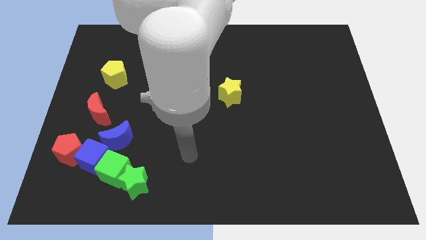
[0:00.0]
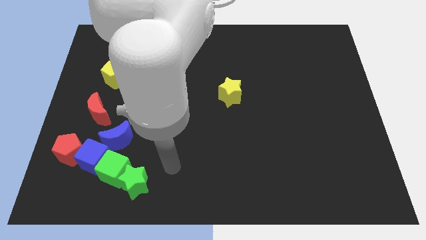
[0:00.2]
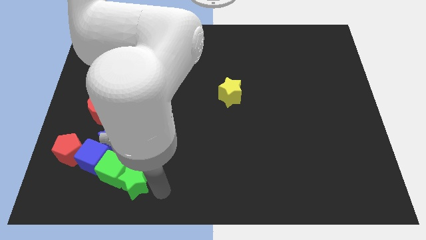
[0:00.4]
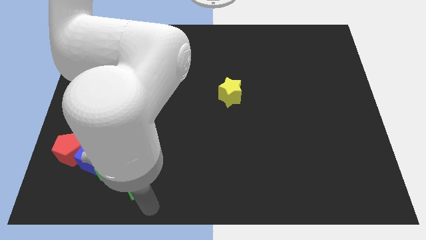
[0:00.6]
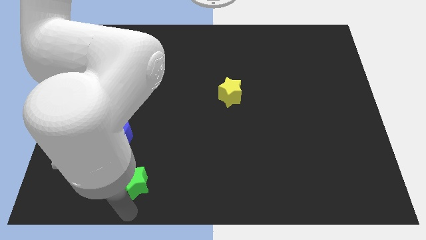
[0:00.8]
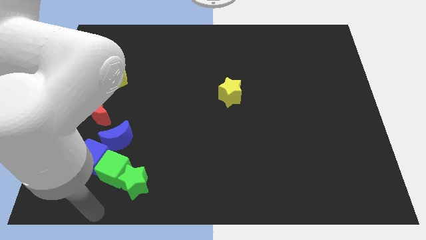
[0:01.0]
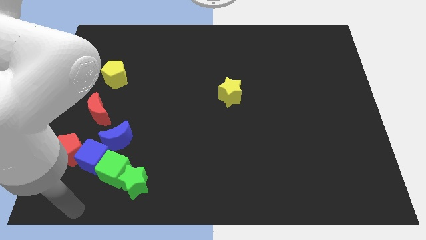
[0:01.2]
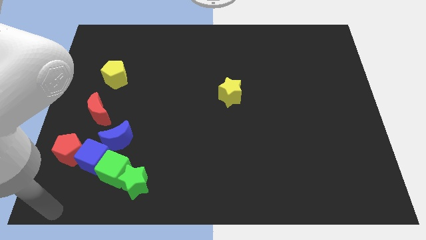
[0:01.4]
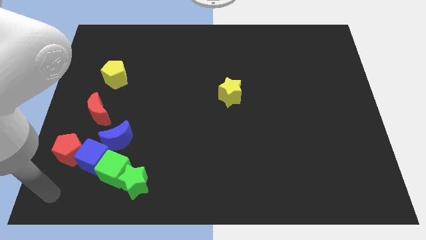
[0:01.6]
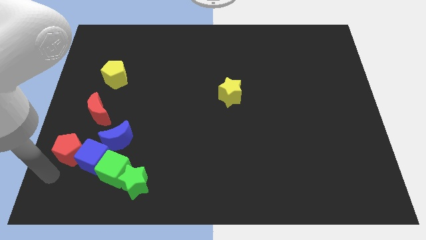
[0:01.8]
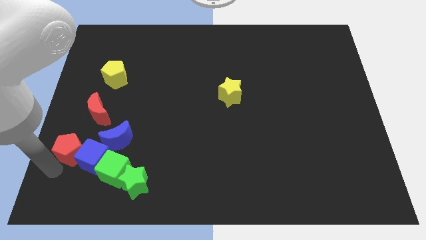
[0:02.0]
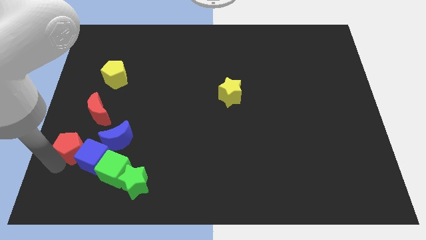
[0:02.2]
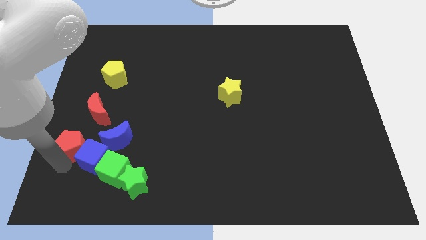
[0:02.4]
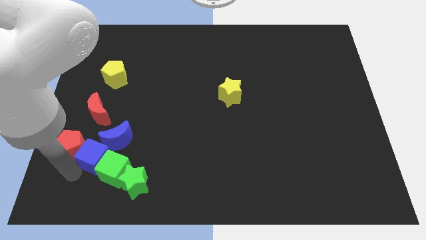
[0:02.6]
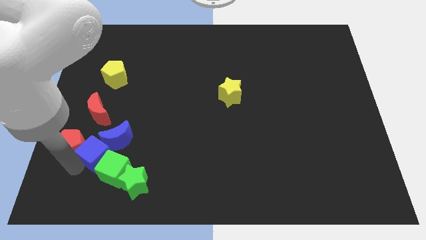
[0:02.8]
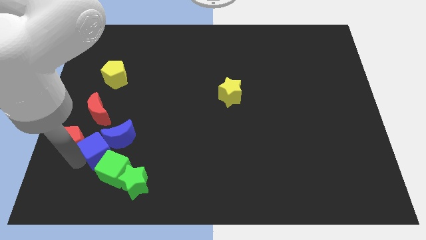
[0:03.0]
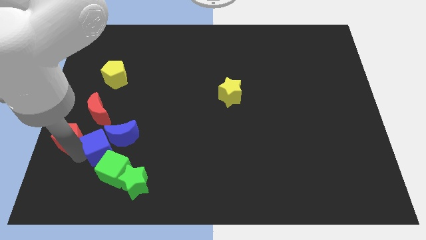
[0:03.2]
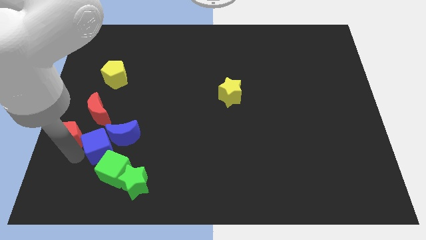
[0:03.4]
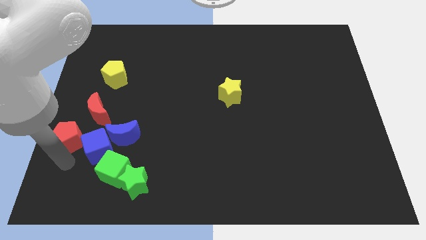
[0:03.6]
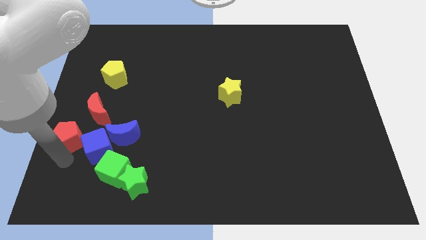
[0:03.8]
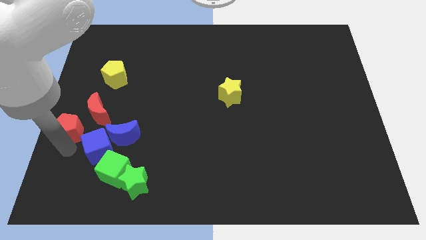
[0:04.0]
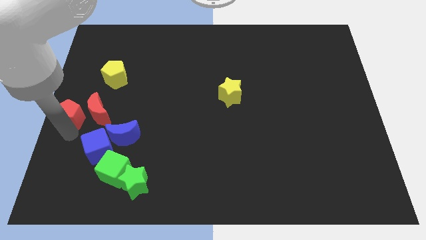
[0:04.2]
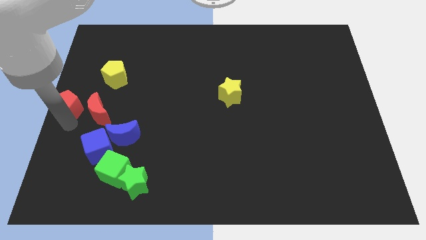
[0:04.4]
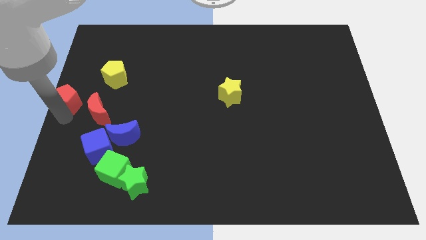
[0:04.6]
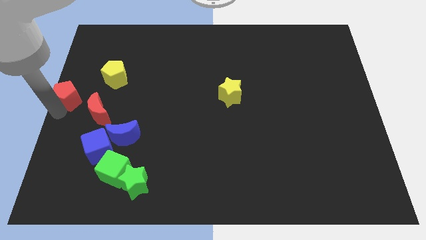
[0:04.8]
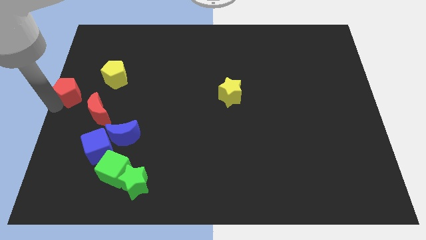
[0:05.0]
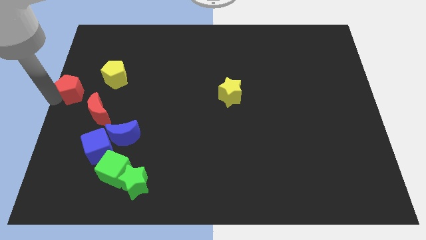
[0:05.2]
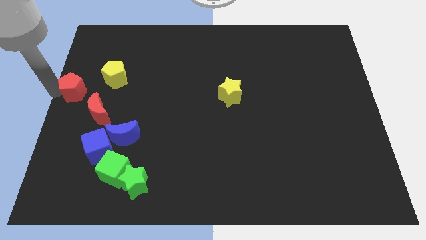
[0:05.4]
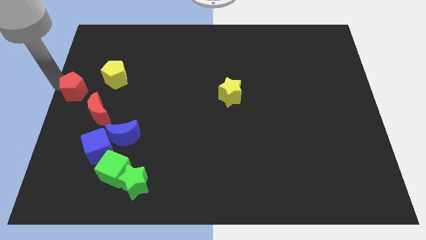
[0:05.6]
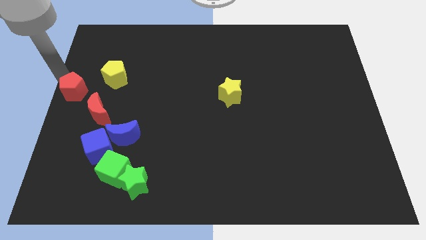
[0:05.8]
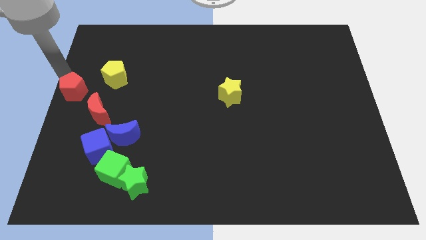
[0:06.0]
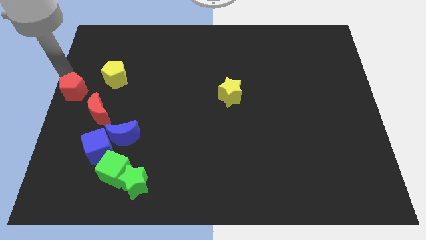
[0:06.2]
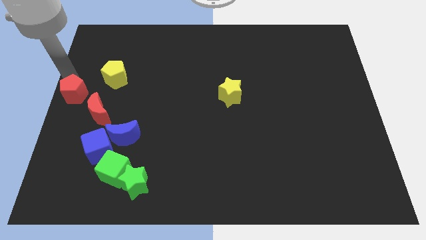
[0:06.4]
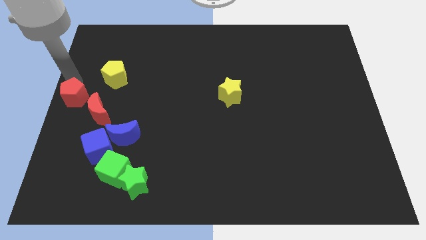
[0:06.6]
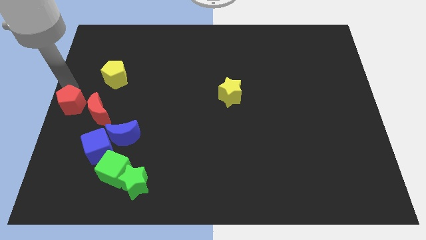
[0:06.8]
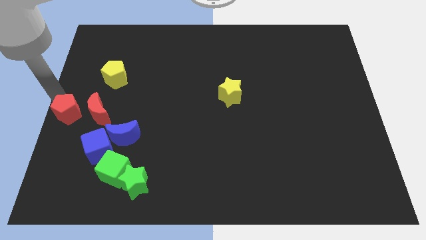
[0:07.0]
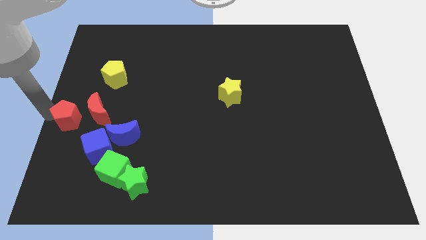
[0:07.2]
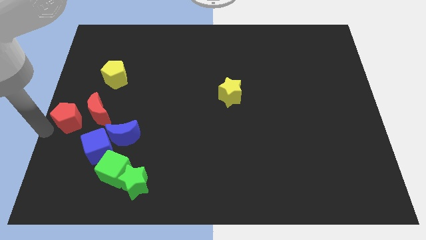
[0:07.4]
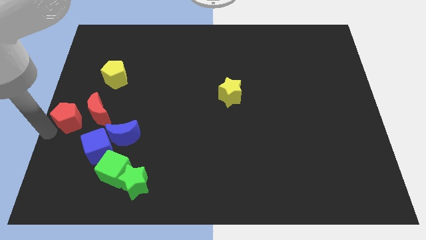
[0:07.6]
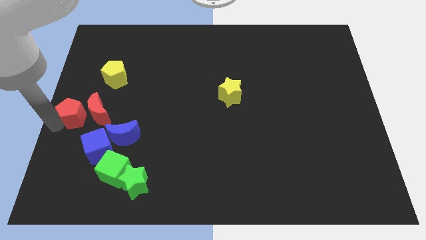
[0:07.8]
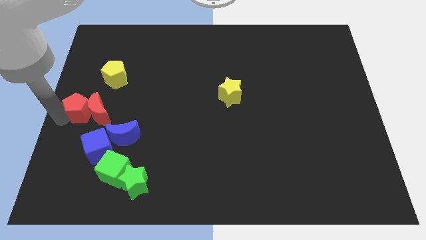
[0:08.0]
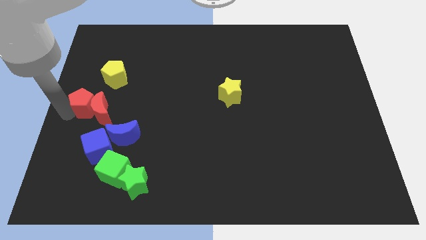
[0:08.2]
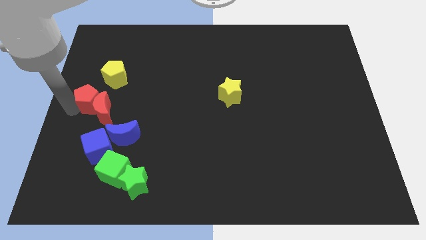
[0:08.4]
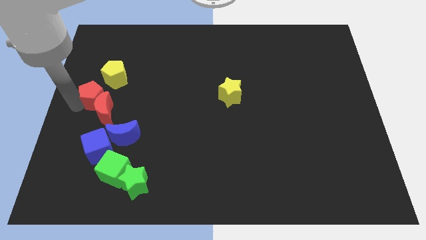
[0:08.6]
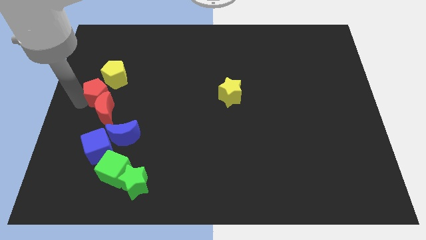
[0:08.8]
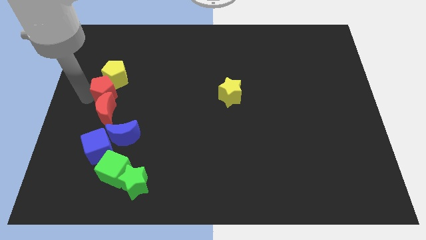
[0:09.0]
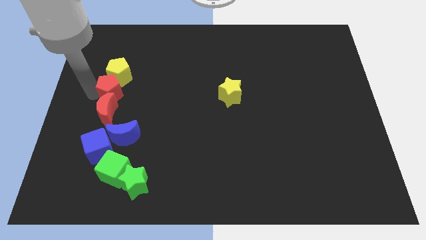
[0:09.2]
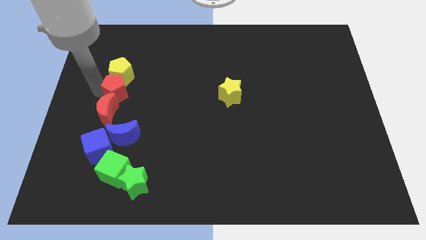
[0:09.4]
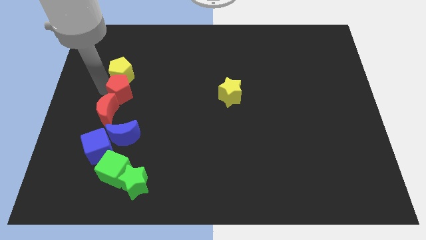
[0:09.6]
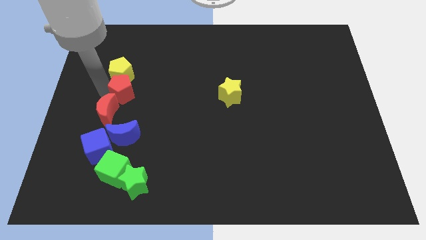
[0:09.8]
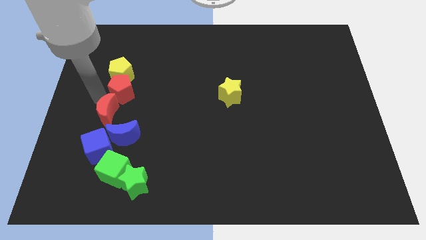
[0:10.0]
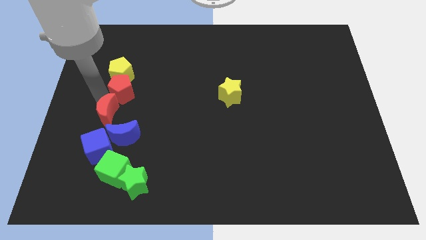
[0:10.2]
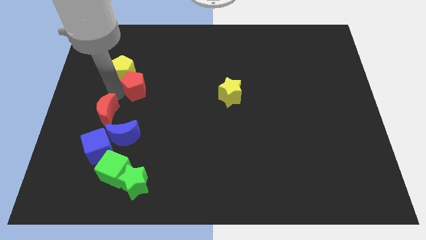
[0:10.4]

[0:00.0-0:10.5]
push the red pentagon diagonally up and right

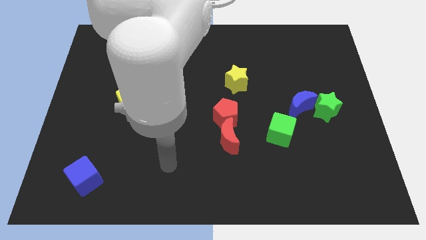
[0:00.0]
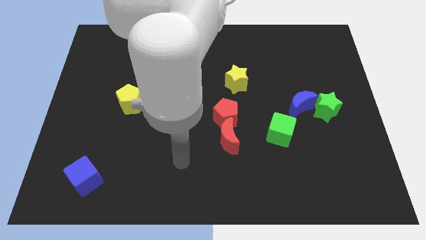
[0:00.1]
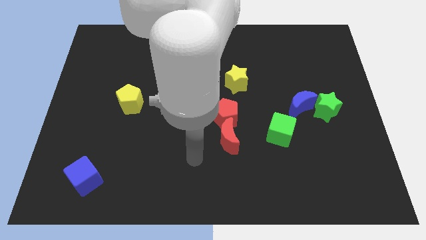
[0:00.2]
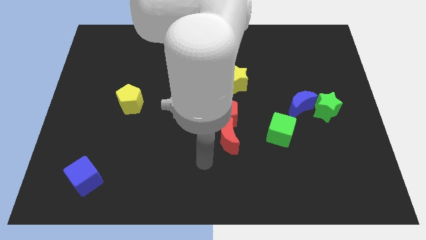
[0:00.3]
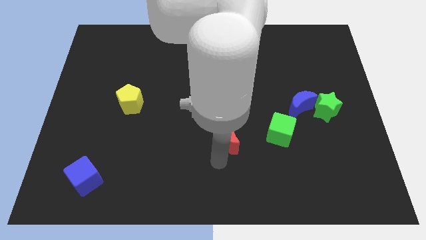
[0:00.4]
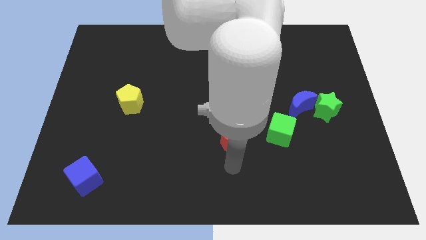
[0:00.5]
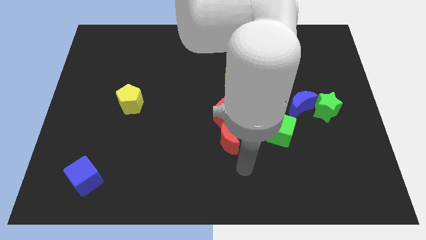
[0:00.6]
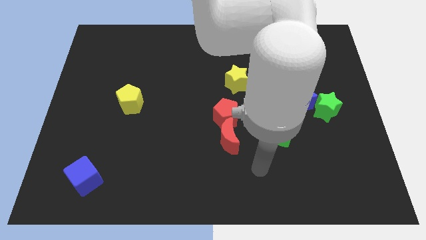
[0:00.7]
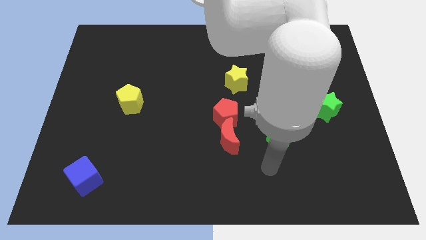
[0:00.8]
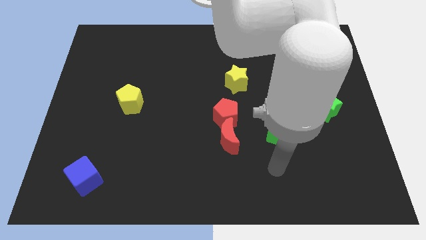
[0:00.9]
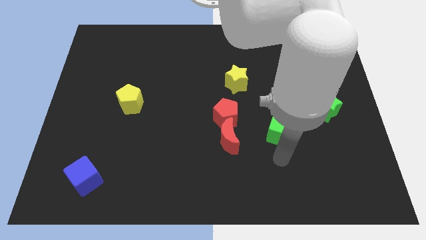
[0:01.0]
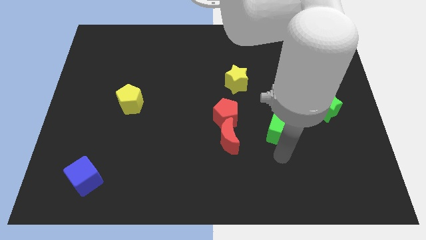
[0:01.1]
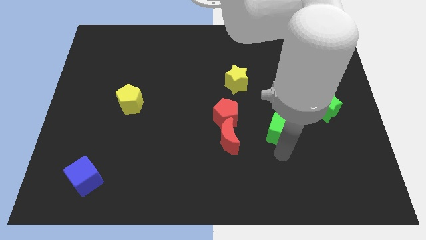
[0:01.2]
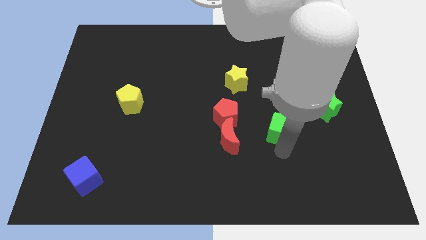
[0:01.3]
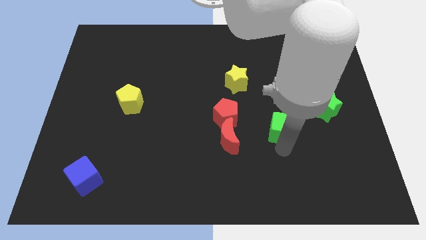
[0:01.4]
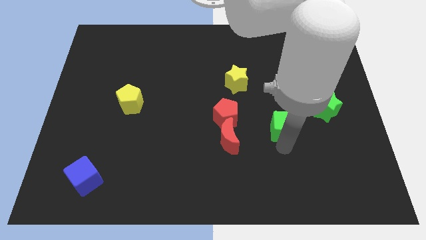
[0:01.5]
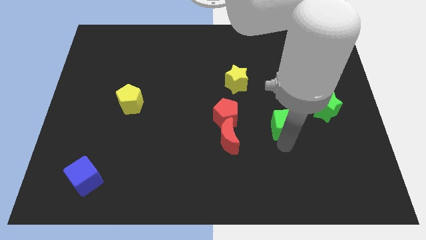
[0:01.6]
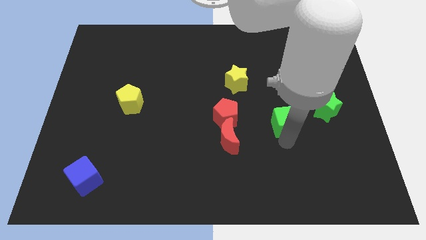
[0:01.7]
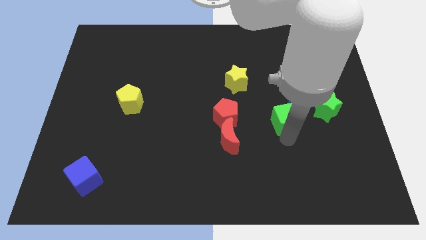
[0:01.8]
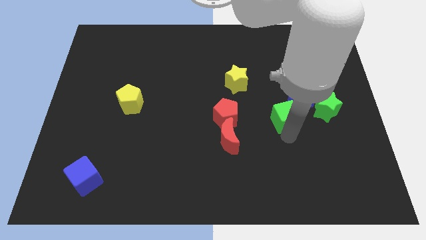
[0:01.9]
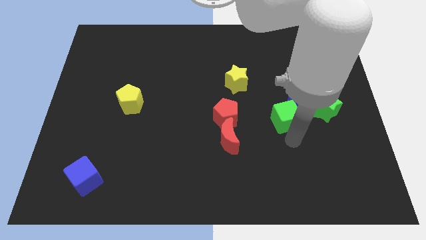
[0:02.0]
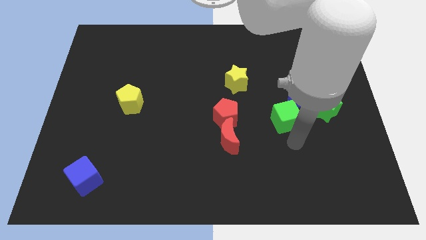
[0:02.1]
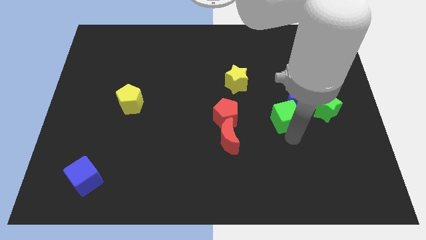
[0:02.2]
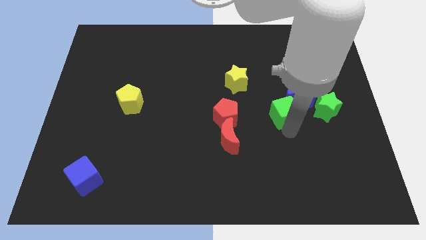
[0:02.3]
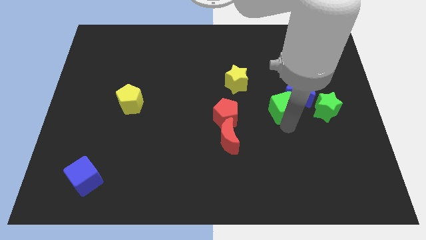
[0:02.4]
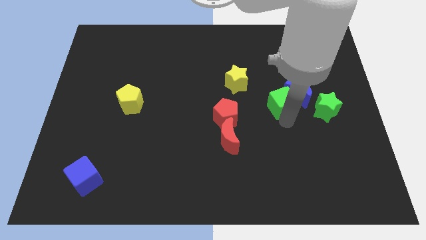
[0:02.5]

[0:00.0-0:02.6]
push the green cube somewhat up

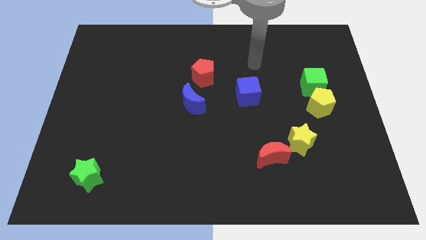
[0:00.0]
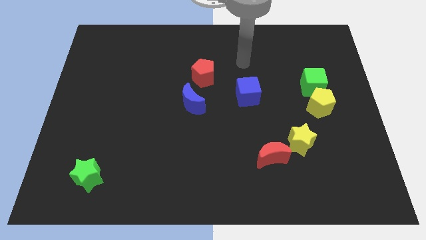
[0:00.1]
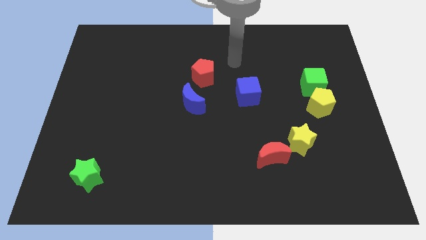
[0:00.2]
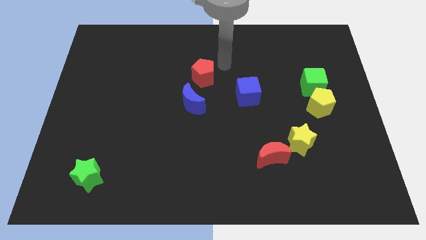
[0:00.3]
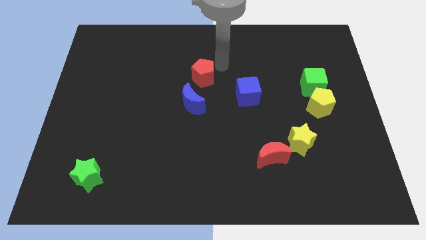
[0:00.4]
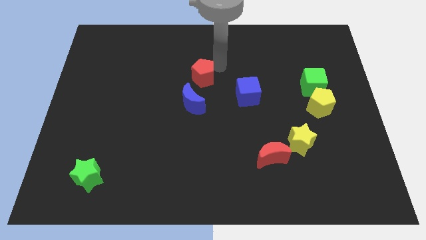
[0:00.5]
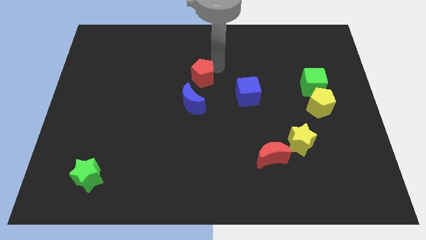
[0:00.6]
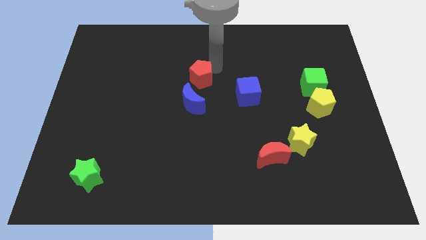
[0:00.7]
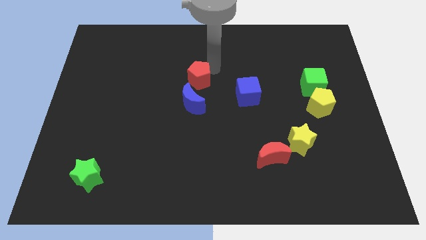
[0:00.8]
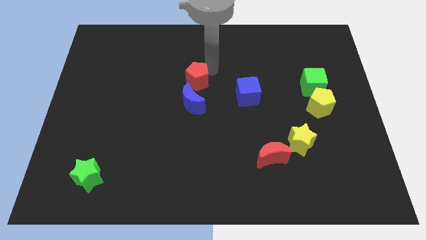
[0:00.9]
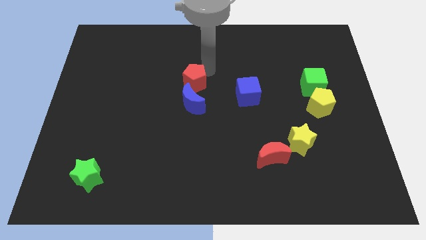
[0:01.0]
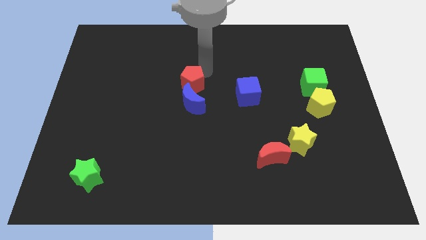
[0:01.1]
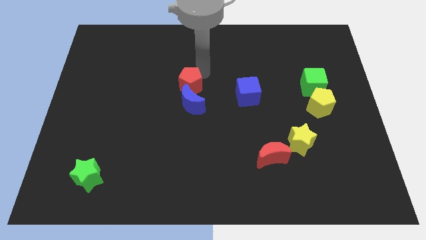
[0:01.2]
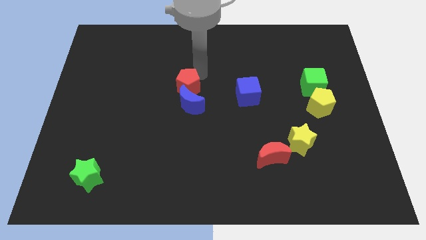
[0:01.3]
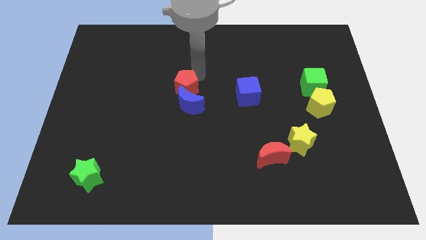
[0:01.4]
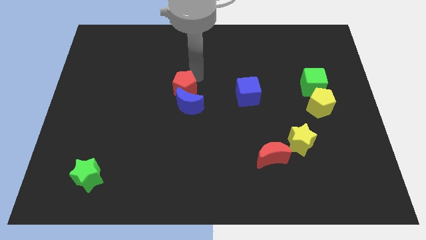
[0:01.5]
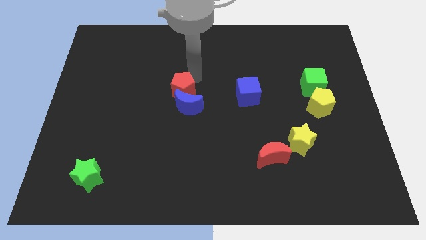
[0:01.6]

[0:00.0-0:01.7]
slide the red pentagon slightly diagonally downwards and to the left
